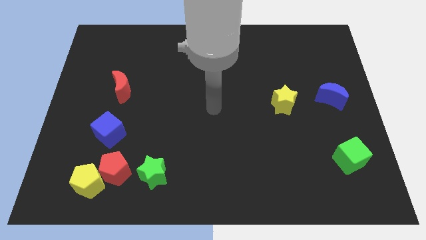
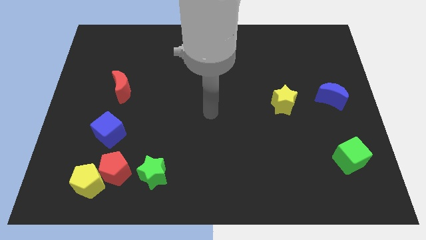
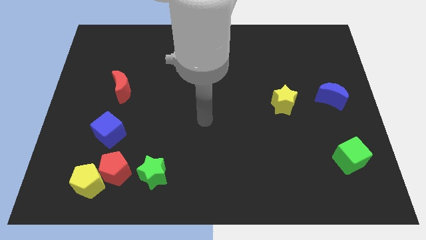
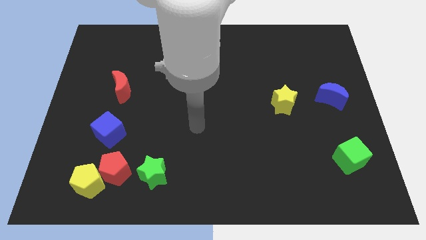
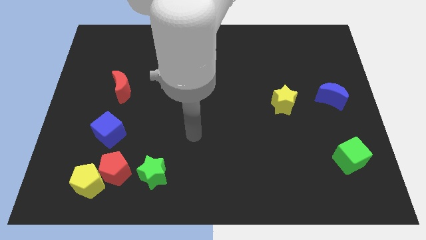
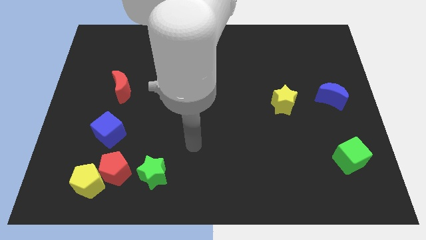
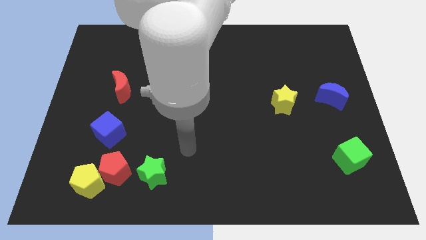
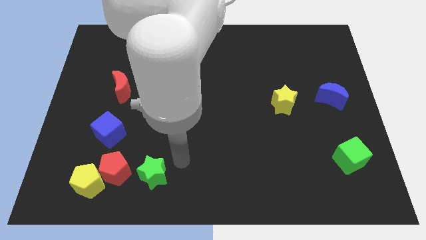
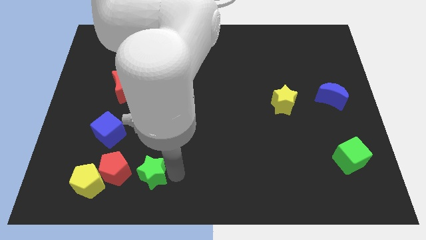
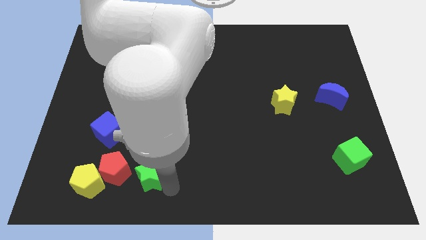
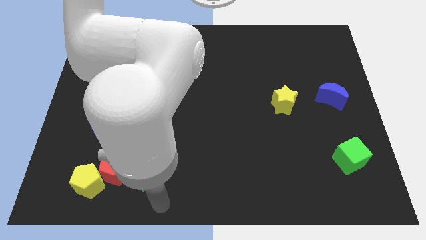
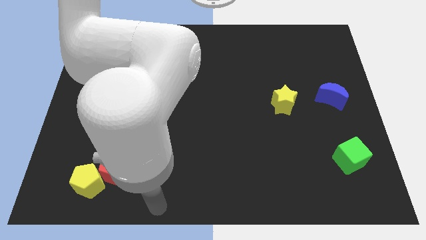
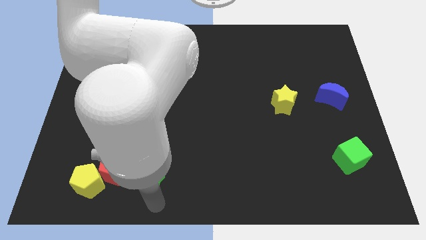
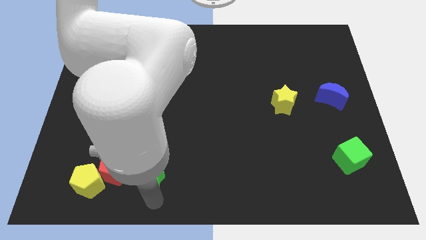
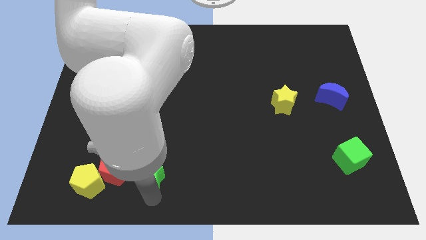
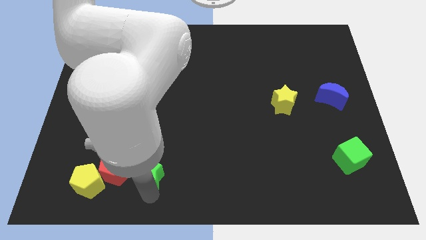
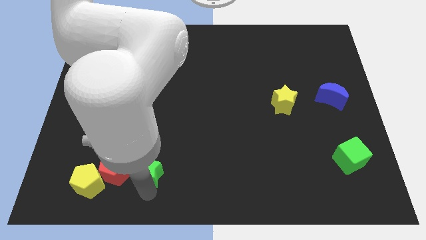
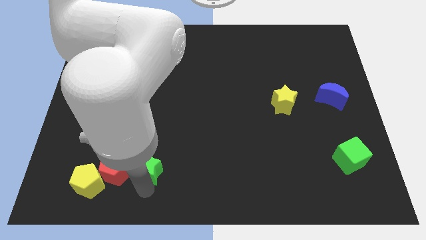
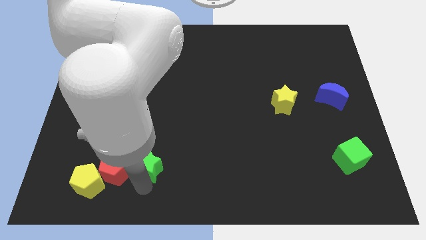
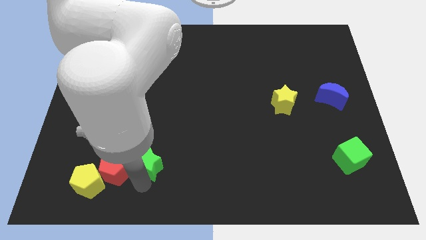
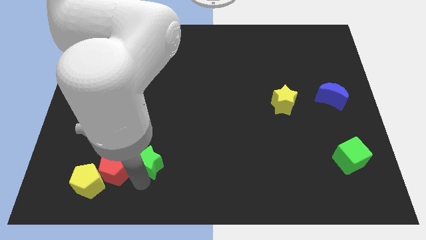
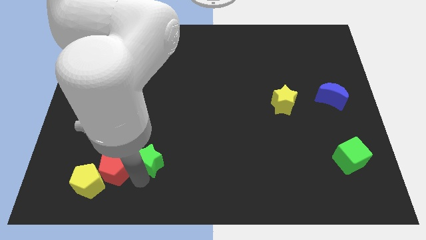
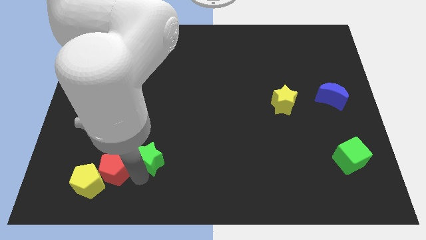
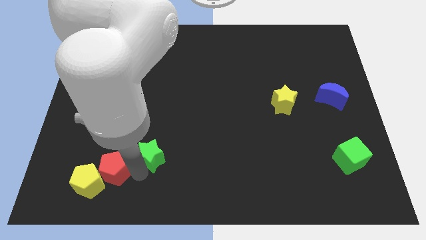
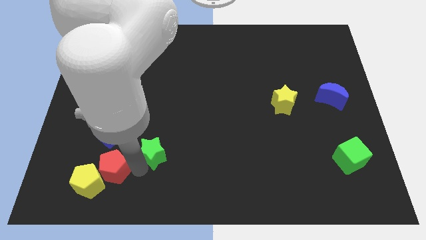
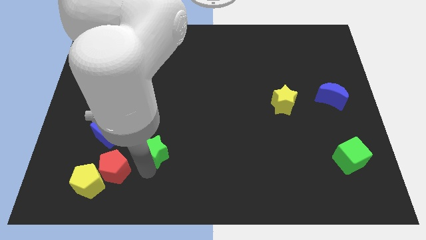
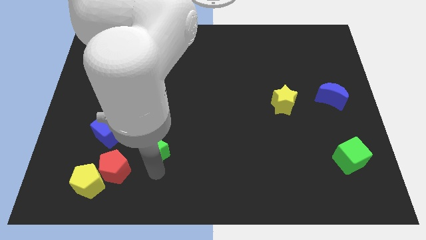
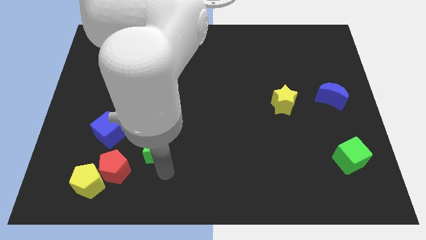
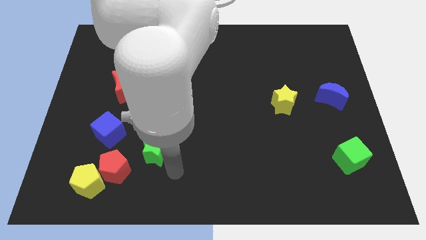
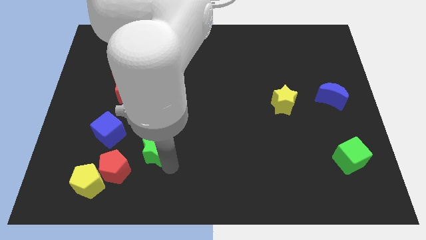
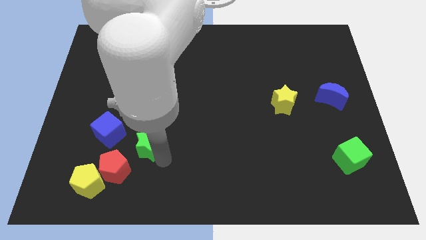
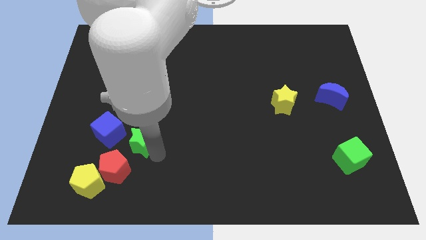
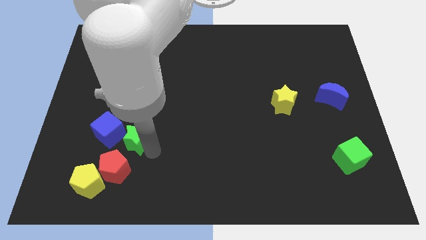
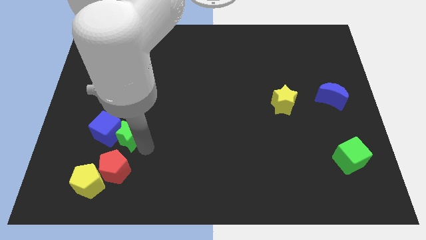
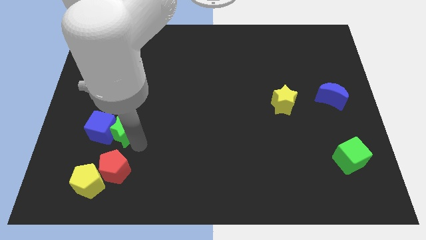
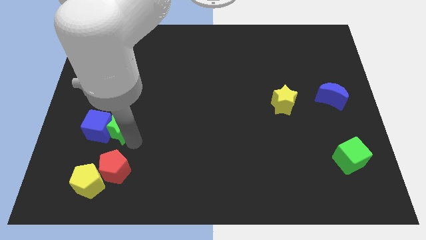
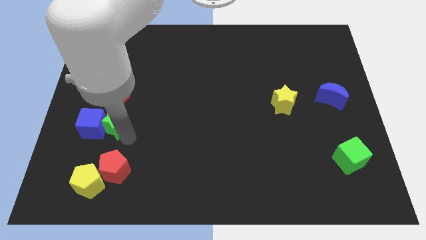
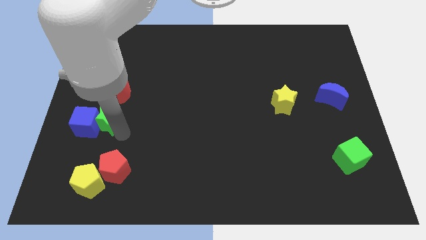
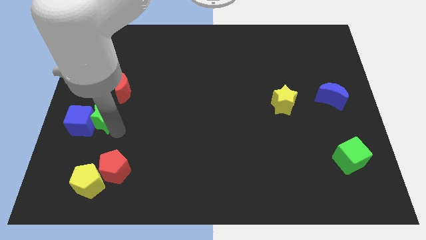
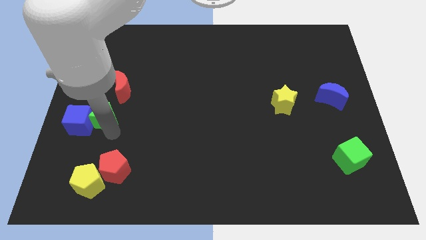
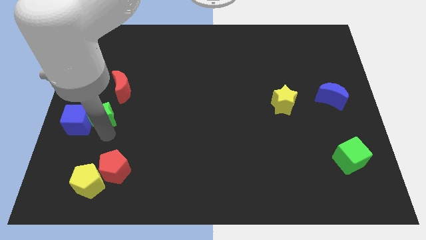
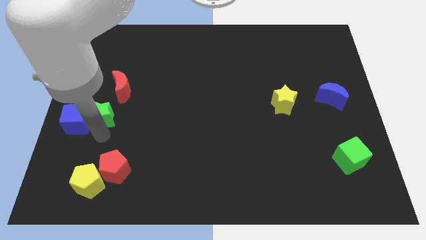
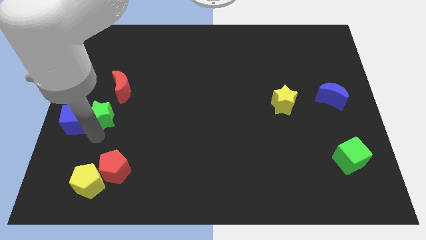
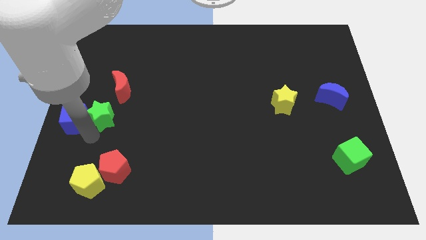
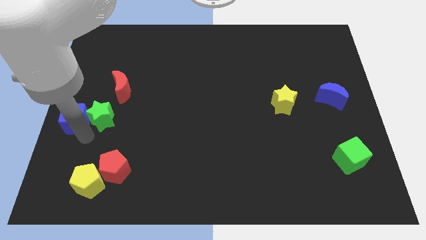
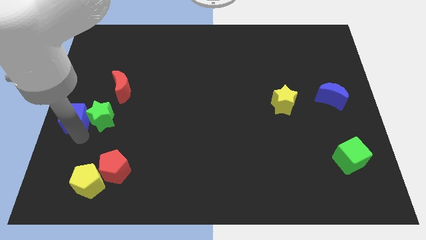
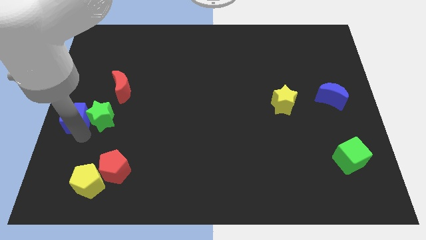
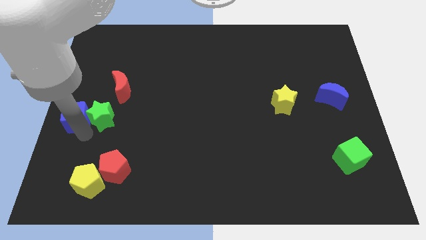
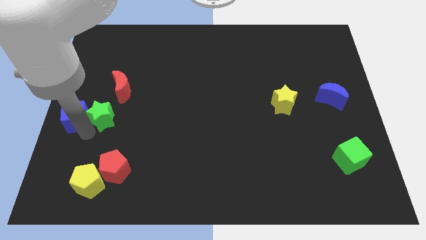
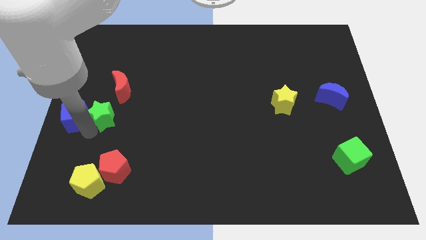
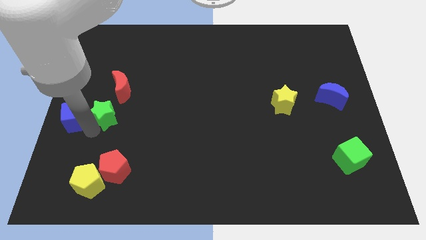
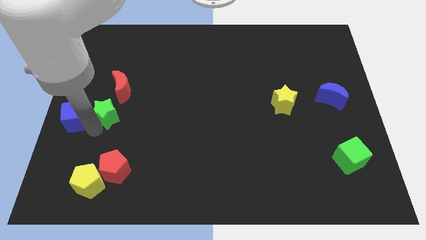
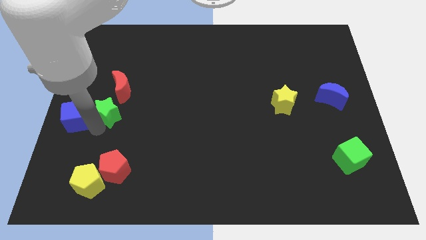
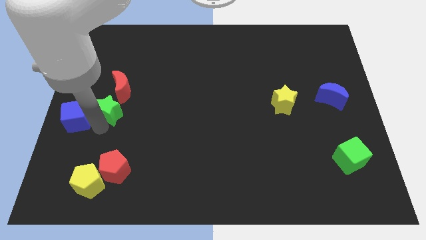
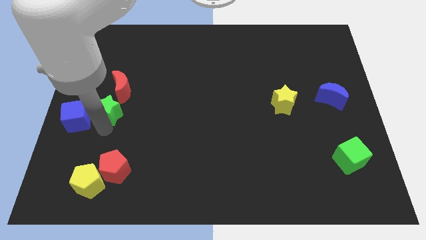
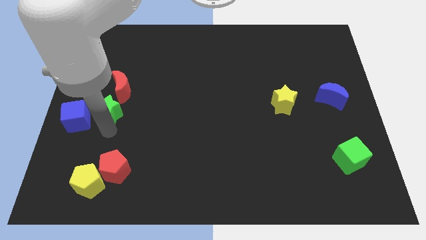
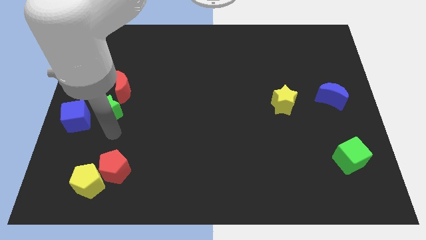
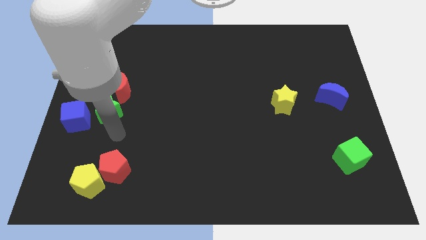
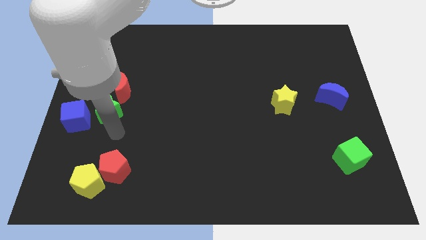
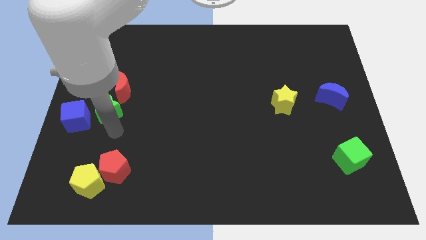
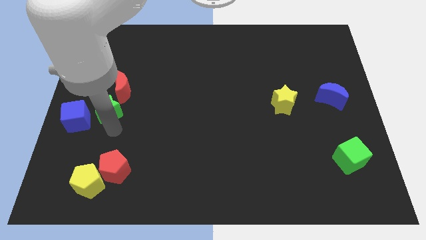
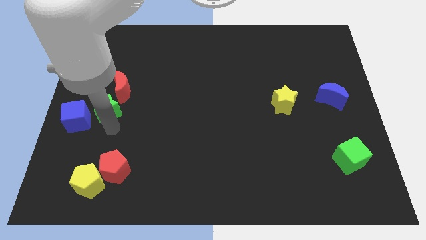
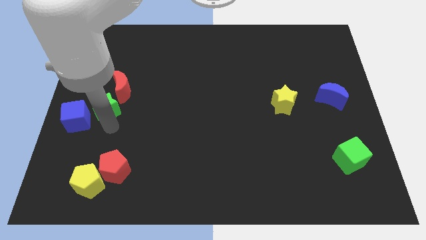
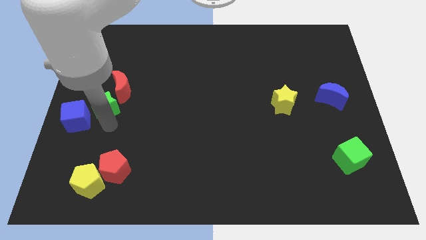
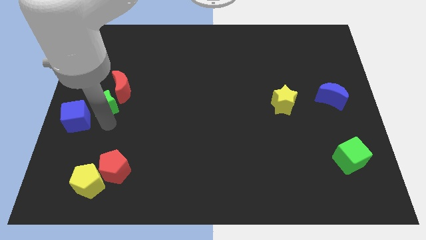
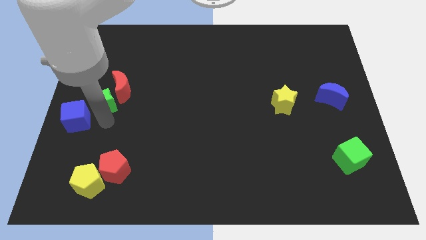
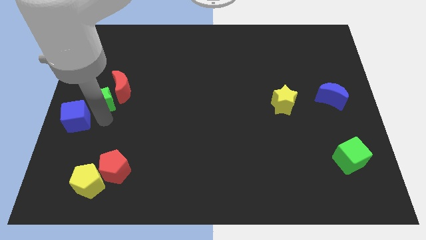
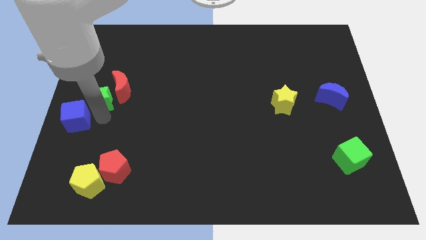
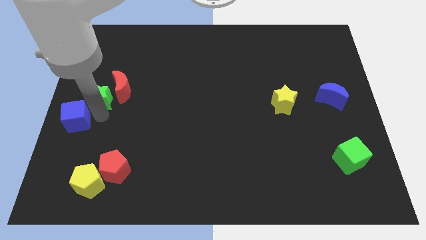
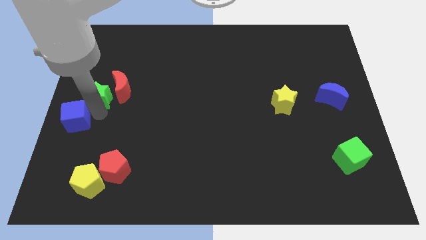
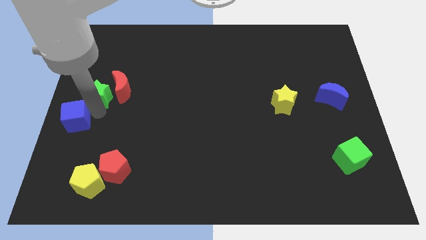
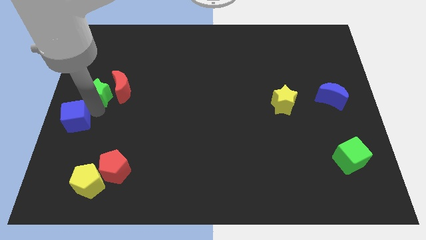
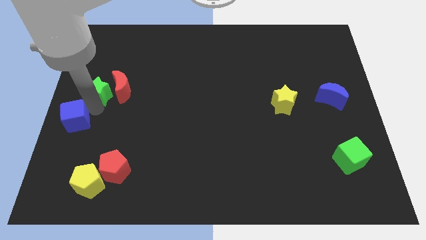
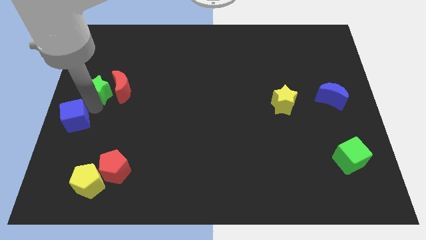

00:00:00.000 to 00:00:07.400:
push the green star diagonally up and to the left of the red moon
